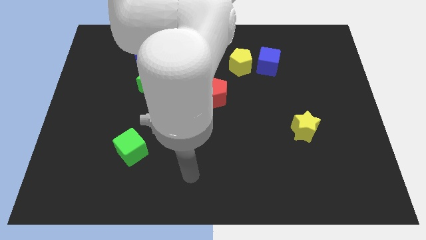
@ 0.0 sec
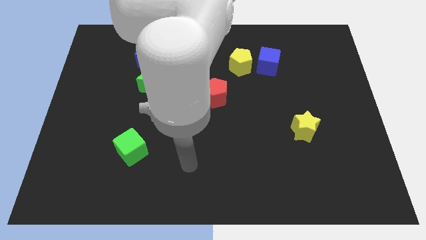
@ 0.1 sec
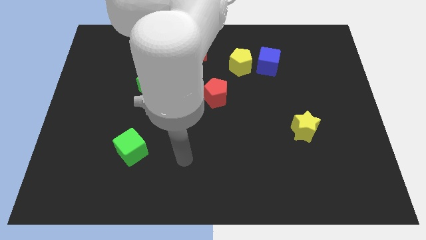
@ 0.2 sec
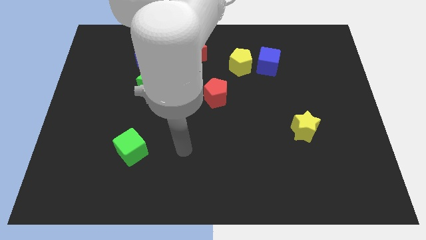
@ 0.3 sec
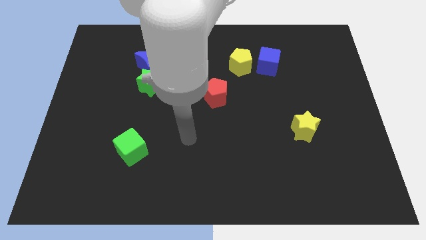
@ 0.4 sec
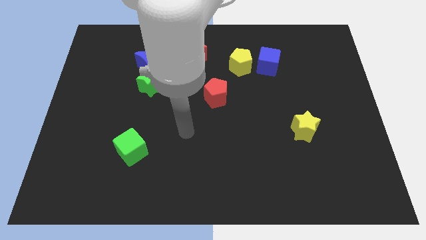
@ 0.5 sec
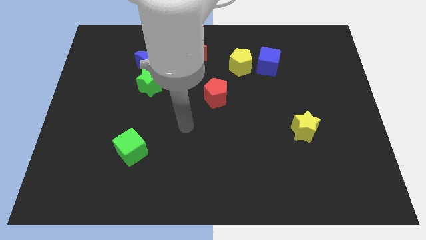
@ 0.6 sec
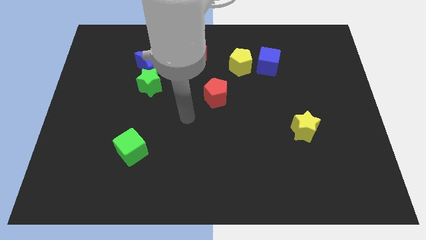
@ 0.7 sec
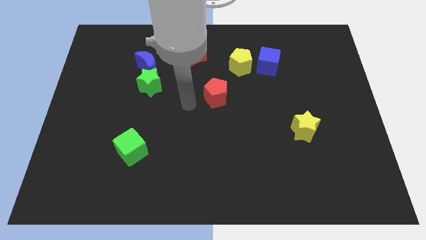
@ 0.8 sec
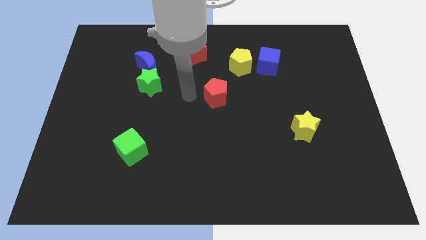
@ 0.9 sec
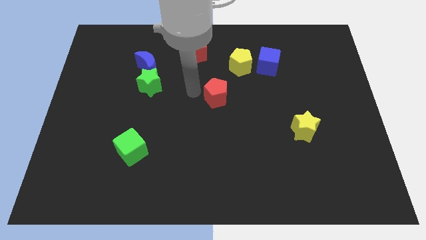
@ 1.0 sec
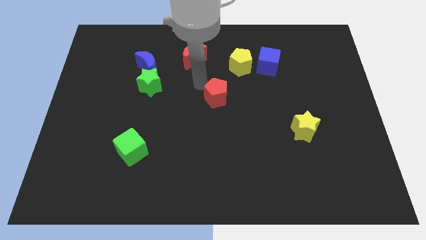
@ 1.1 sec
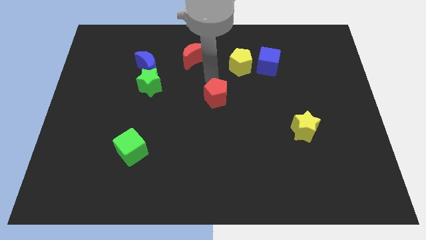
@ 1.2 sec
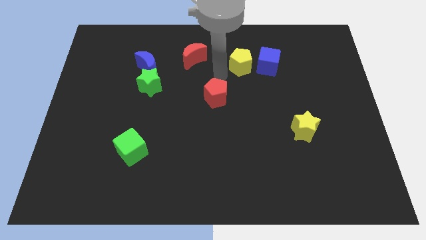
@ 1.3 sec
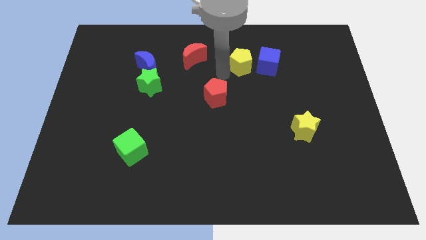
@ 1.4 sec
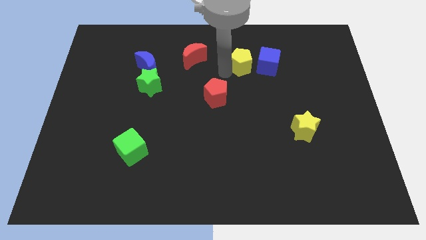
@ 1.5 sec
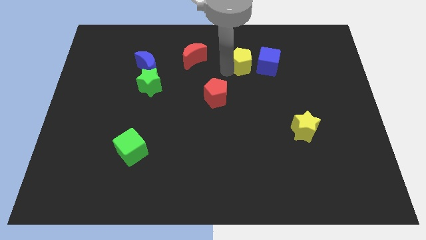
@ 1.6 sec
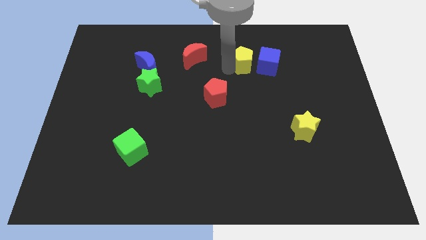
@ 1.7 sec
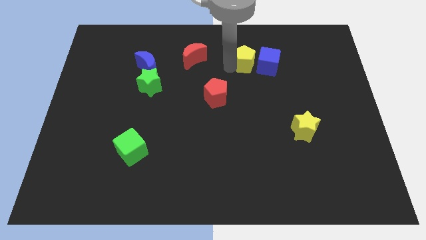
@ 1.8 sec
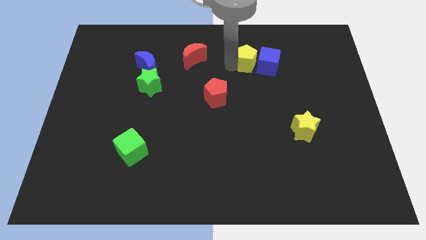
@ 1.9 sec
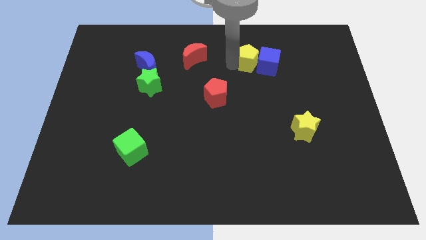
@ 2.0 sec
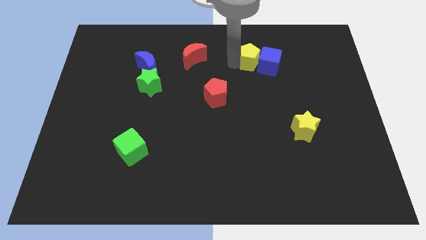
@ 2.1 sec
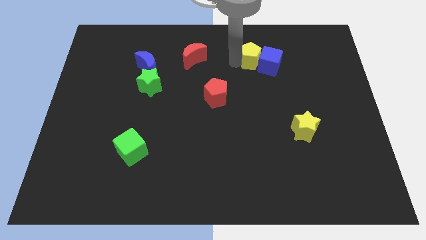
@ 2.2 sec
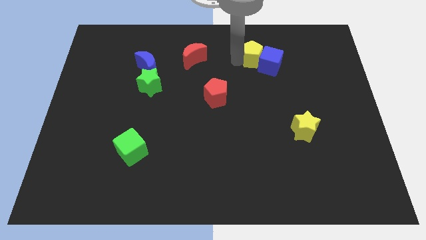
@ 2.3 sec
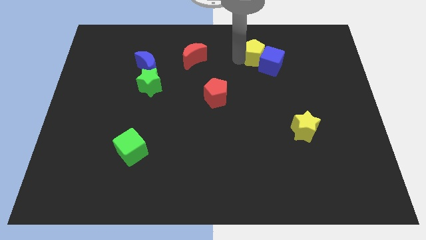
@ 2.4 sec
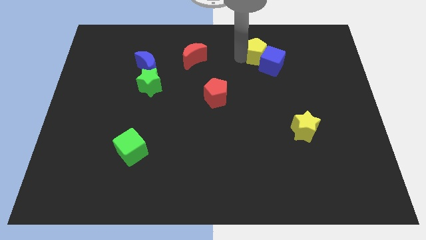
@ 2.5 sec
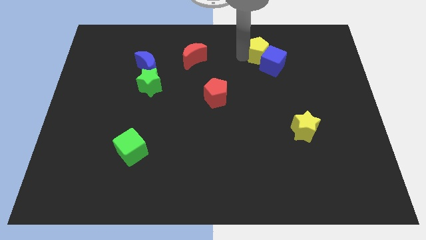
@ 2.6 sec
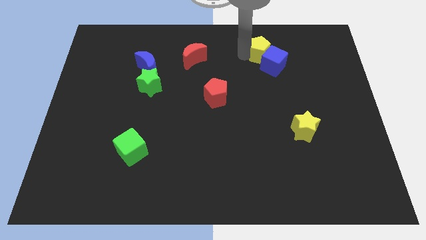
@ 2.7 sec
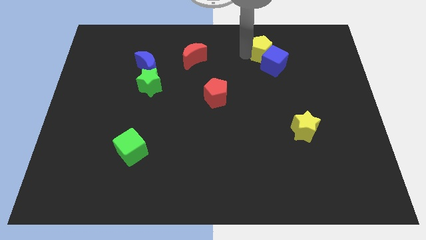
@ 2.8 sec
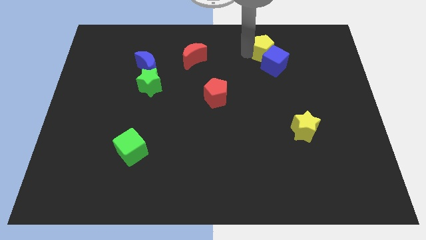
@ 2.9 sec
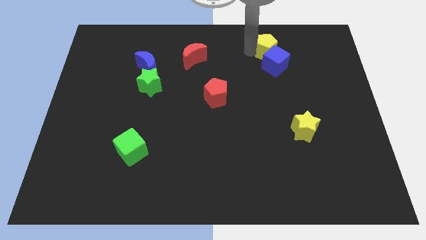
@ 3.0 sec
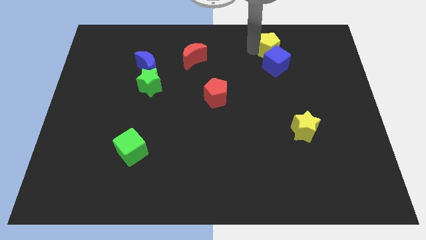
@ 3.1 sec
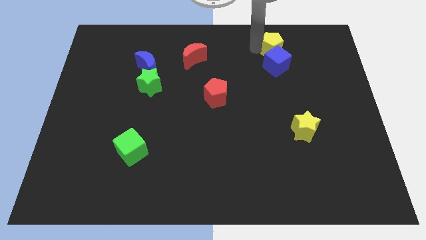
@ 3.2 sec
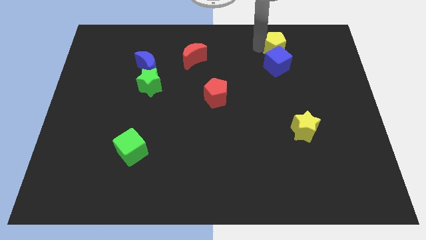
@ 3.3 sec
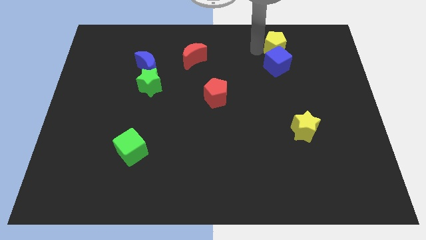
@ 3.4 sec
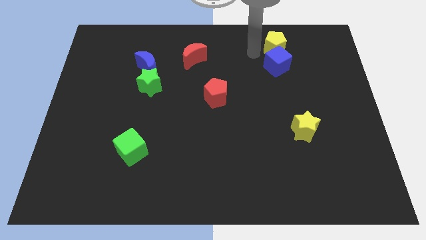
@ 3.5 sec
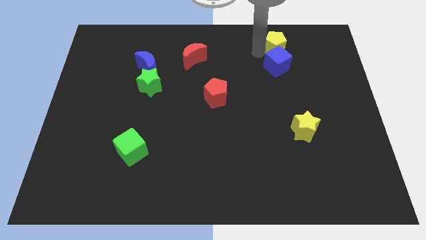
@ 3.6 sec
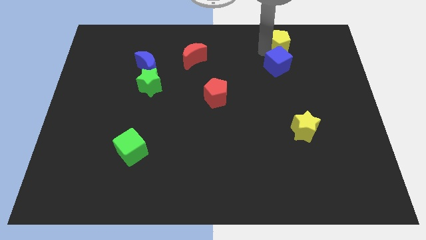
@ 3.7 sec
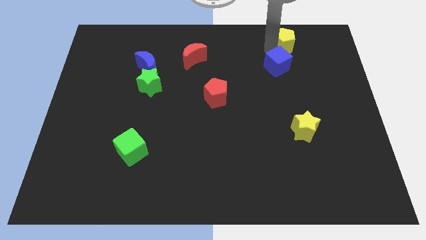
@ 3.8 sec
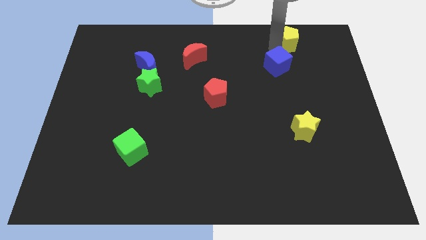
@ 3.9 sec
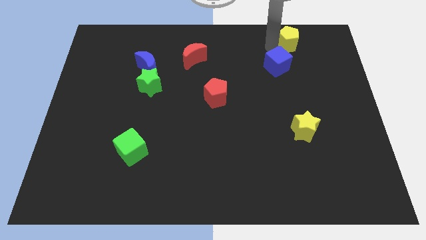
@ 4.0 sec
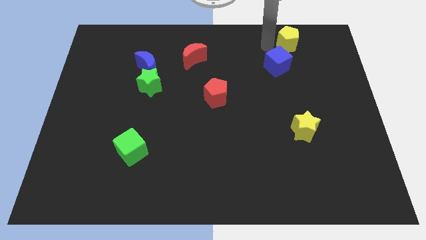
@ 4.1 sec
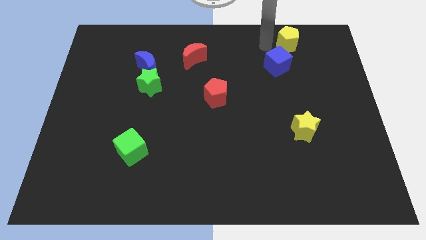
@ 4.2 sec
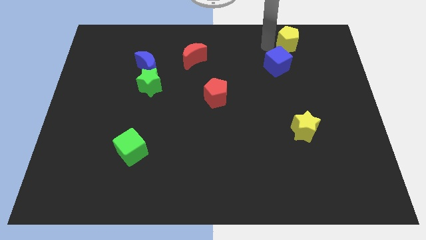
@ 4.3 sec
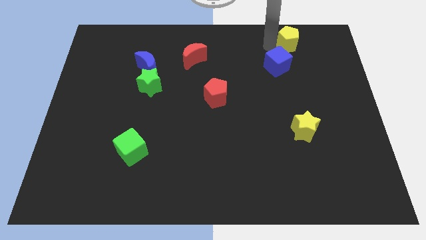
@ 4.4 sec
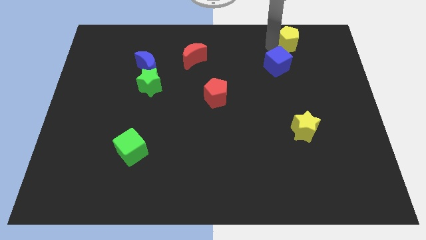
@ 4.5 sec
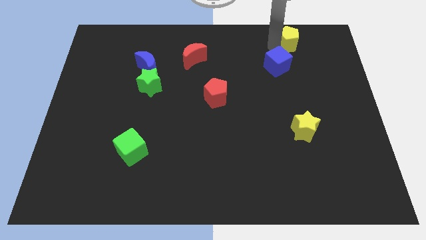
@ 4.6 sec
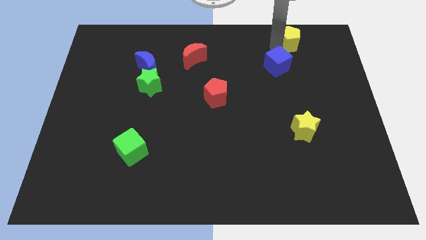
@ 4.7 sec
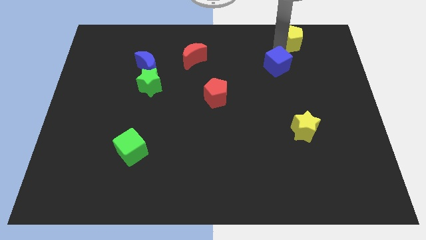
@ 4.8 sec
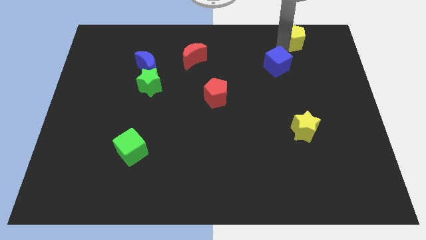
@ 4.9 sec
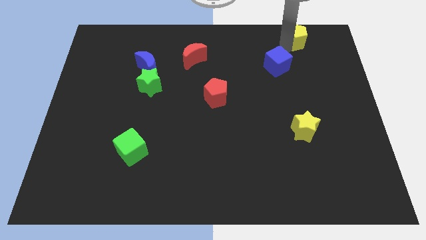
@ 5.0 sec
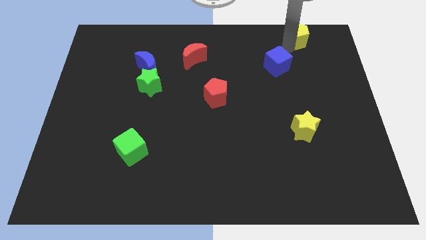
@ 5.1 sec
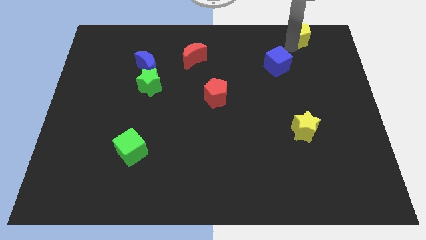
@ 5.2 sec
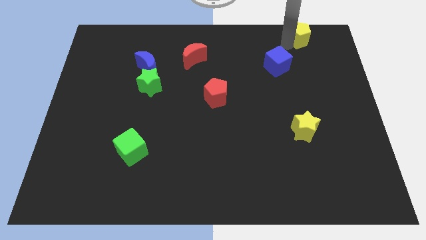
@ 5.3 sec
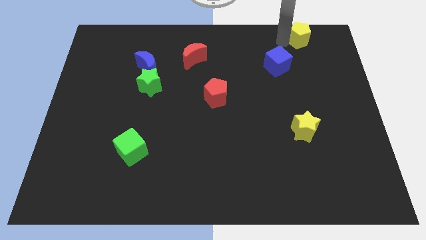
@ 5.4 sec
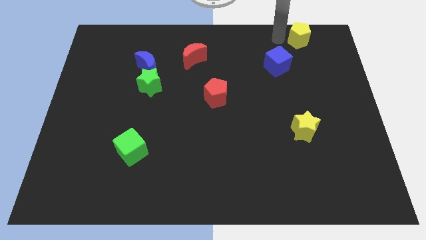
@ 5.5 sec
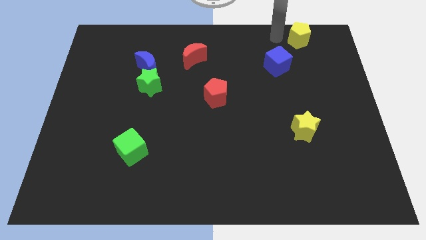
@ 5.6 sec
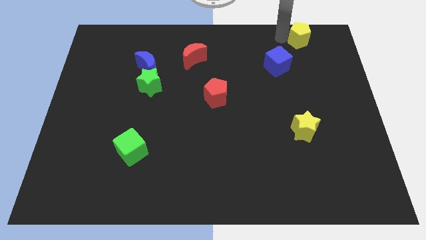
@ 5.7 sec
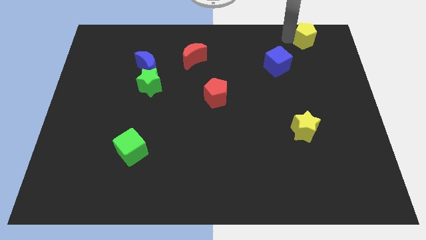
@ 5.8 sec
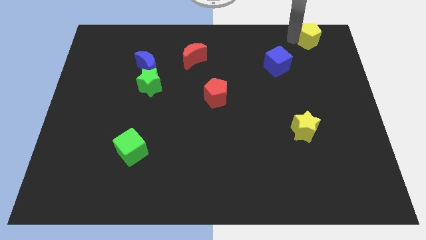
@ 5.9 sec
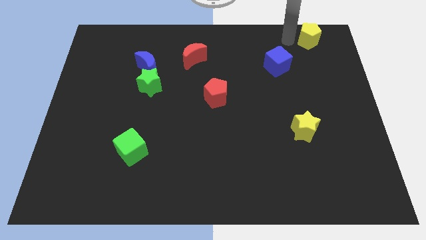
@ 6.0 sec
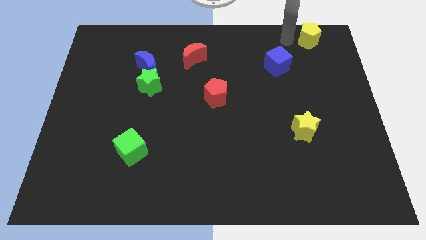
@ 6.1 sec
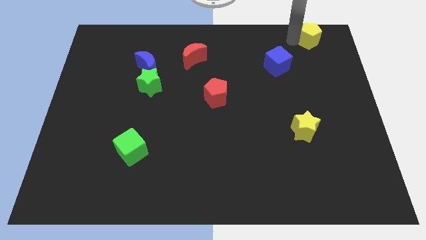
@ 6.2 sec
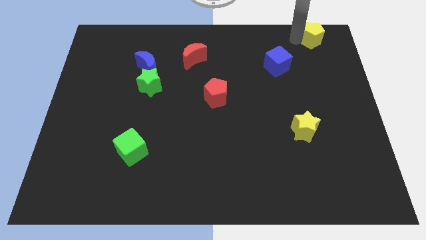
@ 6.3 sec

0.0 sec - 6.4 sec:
put the yellow pentagon to the top right of the board

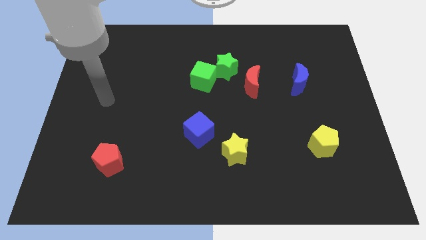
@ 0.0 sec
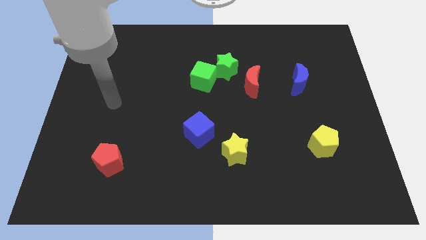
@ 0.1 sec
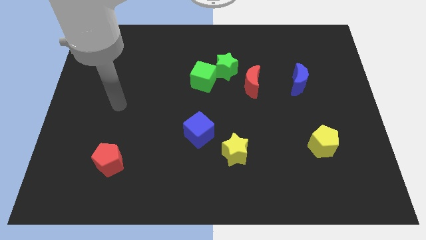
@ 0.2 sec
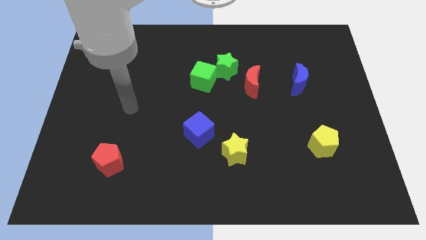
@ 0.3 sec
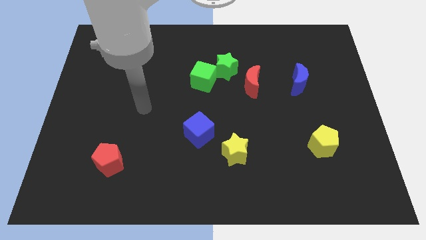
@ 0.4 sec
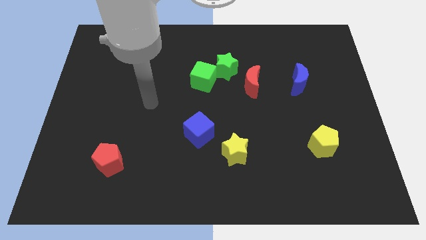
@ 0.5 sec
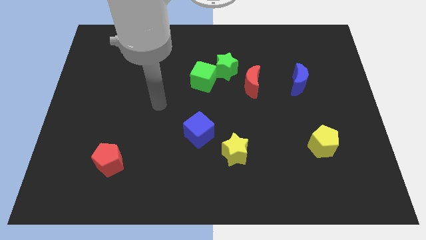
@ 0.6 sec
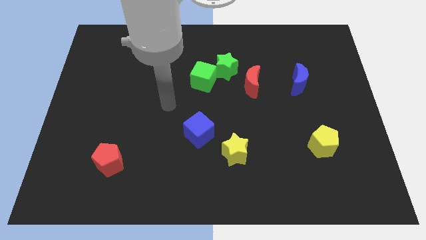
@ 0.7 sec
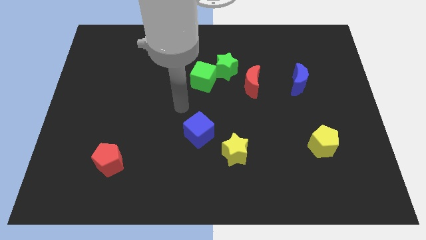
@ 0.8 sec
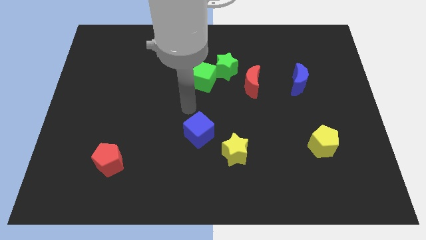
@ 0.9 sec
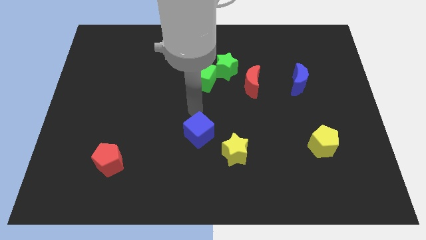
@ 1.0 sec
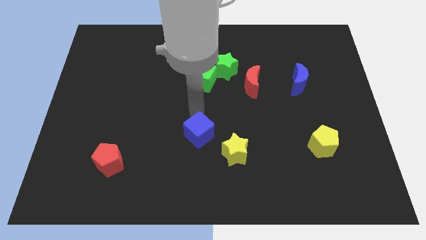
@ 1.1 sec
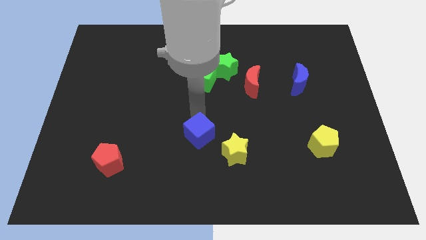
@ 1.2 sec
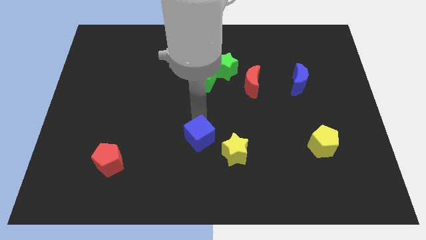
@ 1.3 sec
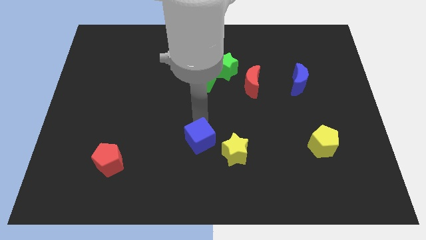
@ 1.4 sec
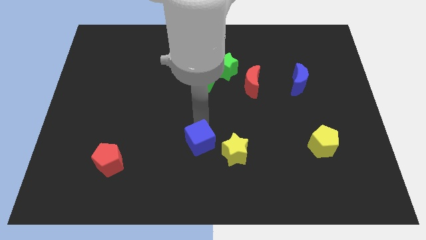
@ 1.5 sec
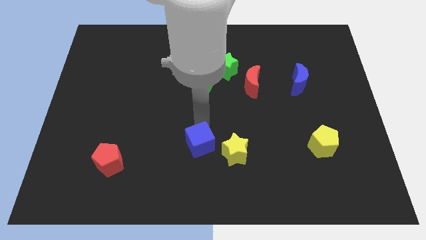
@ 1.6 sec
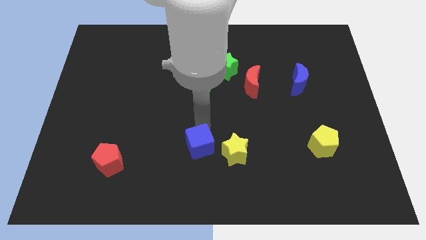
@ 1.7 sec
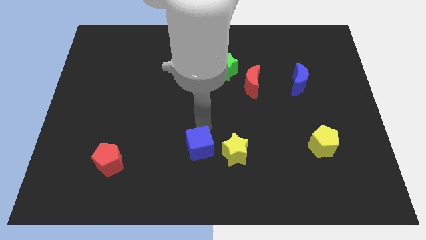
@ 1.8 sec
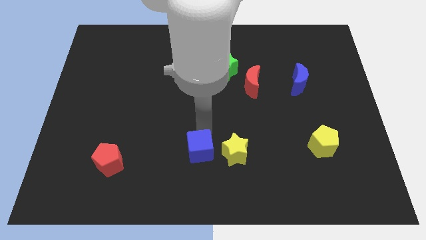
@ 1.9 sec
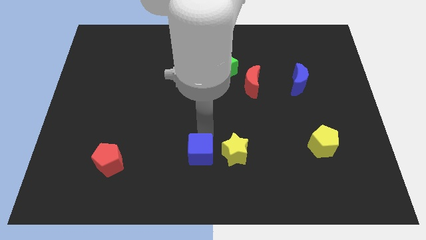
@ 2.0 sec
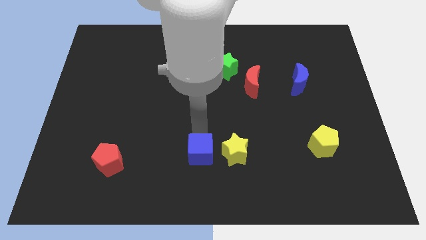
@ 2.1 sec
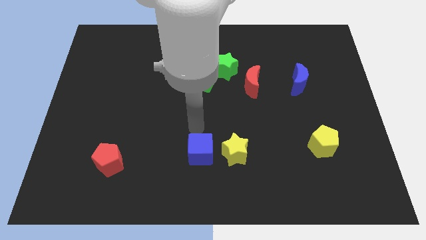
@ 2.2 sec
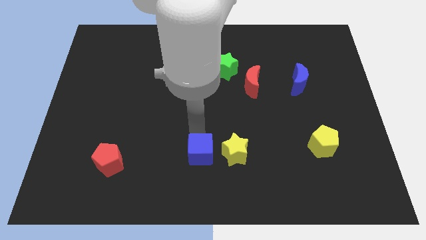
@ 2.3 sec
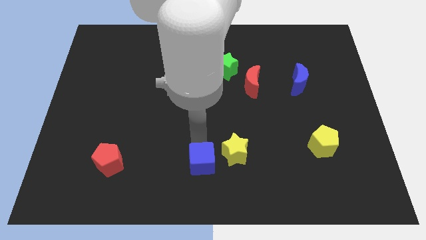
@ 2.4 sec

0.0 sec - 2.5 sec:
slide the blue cube to the bottom side
